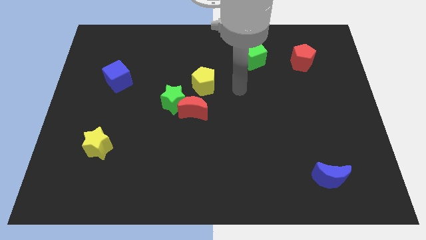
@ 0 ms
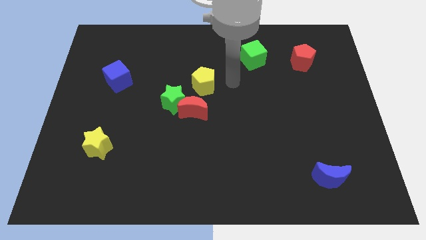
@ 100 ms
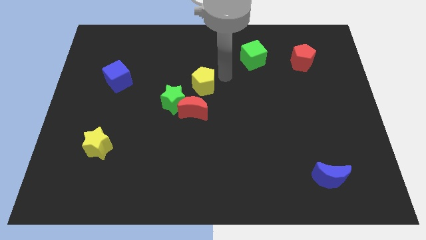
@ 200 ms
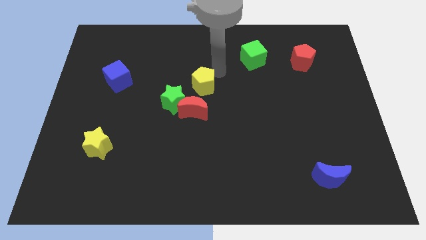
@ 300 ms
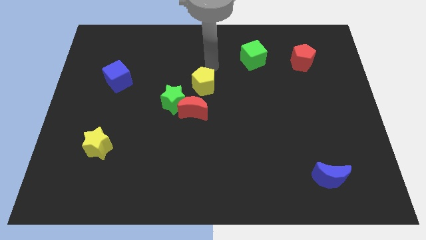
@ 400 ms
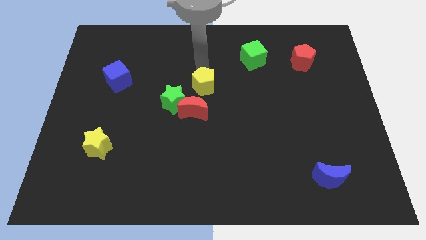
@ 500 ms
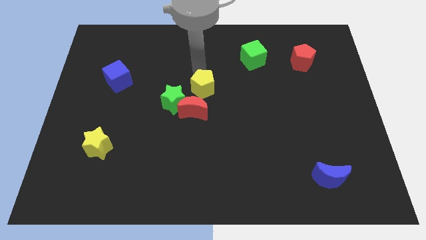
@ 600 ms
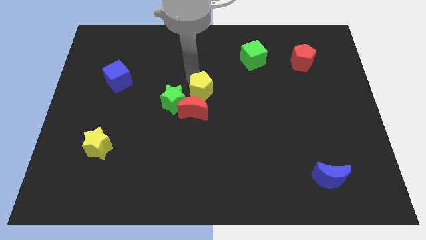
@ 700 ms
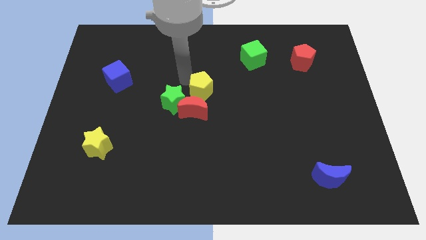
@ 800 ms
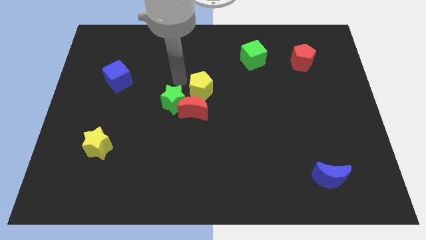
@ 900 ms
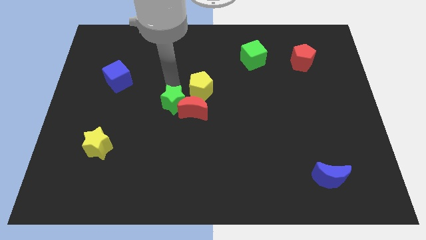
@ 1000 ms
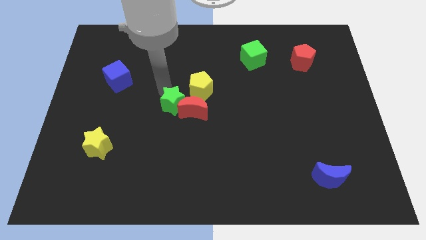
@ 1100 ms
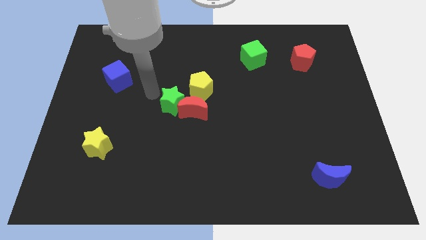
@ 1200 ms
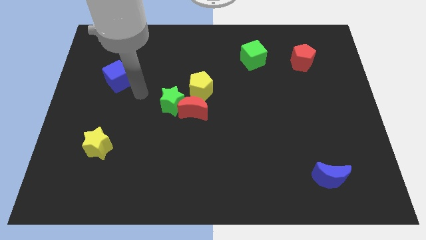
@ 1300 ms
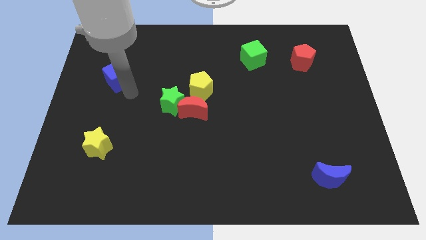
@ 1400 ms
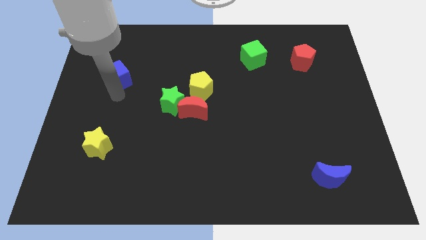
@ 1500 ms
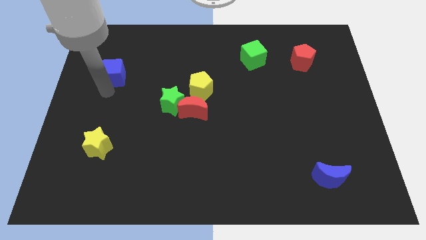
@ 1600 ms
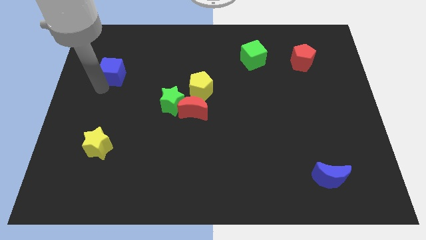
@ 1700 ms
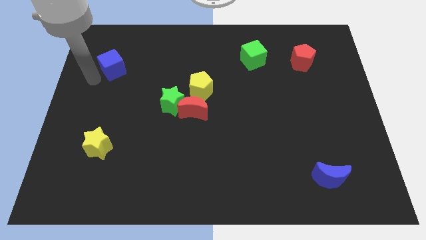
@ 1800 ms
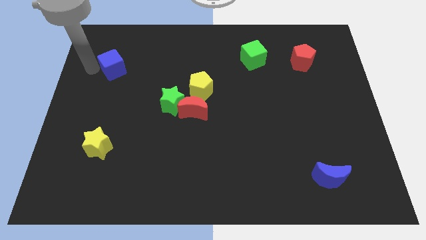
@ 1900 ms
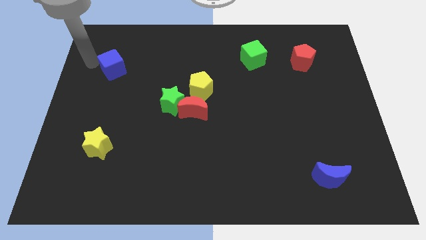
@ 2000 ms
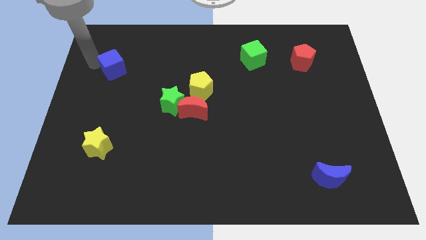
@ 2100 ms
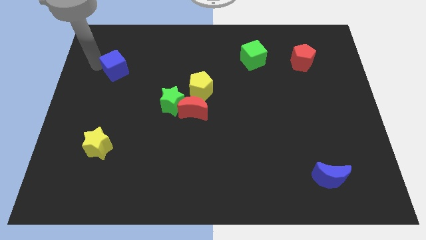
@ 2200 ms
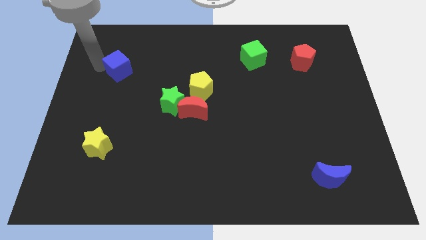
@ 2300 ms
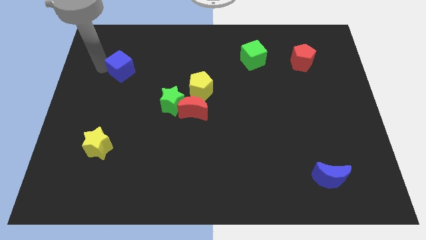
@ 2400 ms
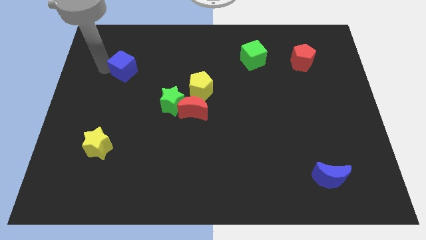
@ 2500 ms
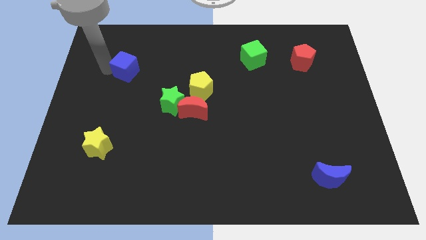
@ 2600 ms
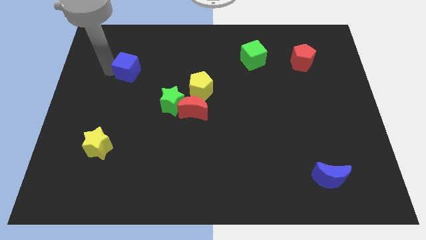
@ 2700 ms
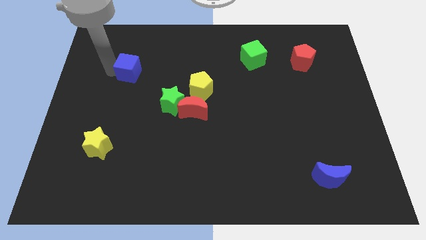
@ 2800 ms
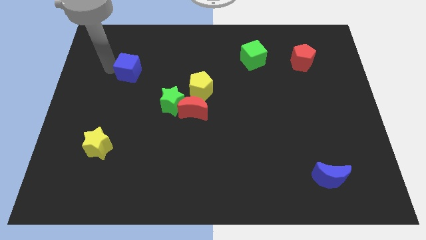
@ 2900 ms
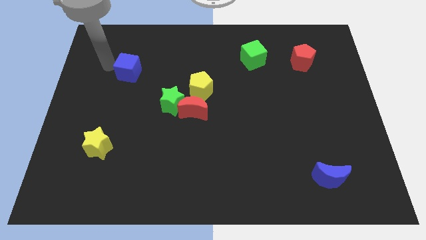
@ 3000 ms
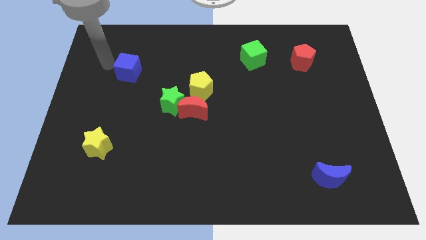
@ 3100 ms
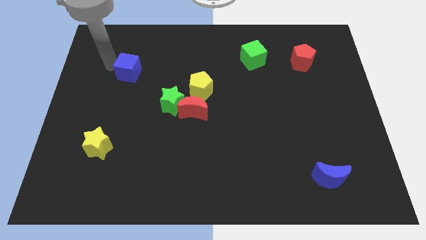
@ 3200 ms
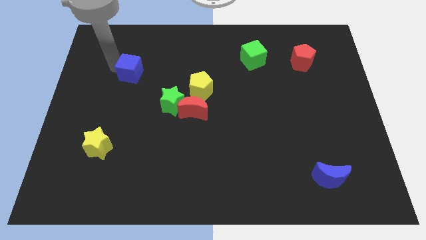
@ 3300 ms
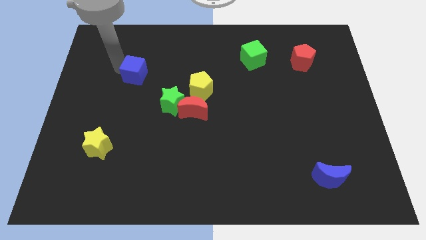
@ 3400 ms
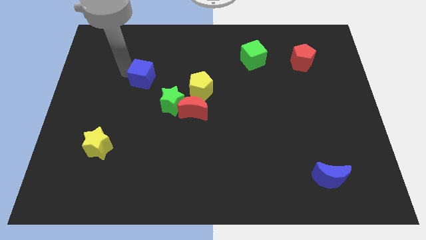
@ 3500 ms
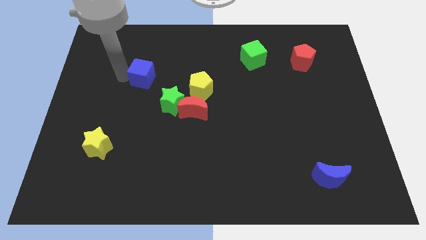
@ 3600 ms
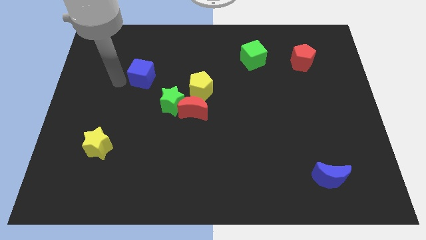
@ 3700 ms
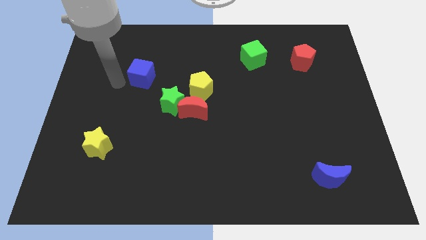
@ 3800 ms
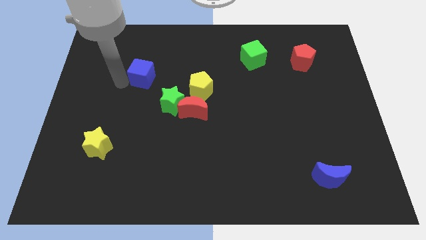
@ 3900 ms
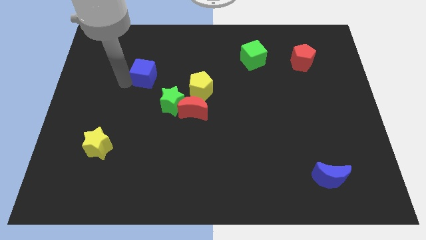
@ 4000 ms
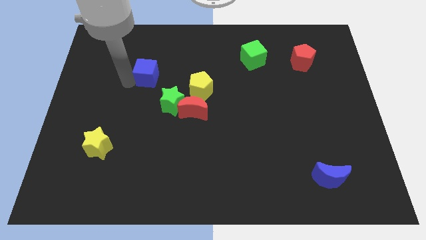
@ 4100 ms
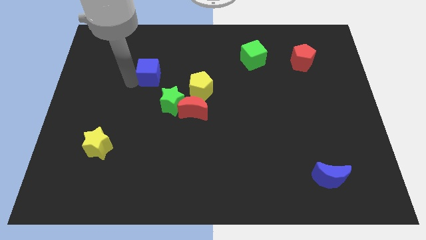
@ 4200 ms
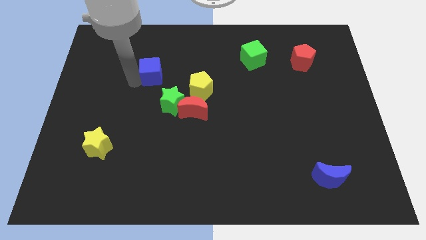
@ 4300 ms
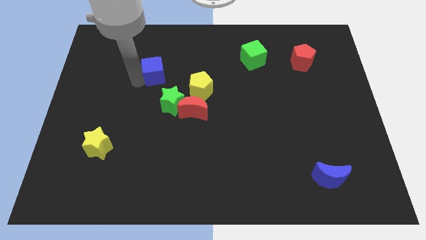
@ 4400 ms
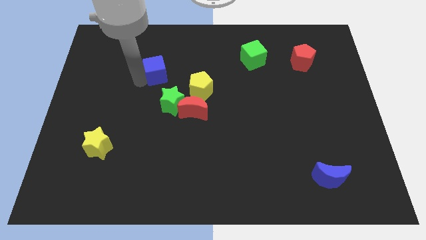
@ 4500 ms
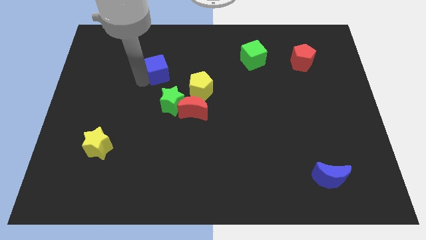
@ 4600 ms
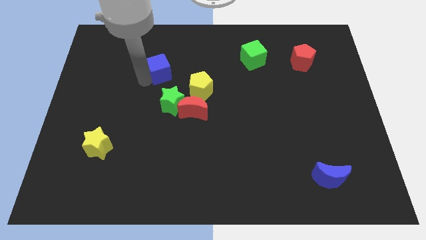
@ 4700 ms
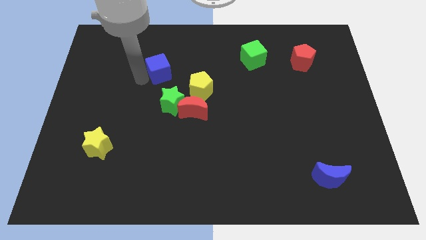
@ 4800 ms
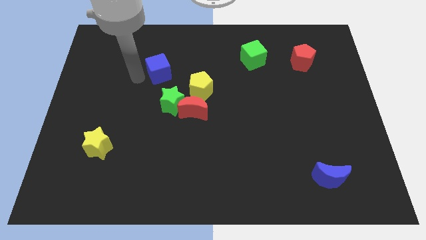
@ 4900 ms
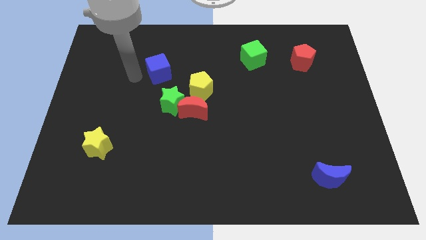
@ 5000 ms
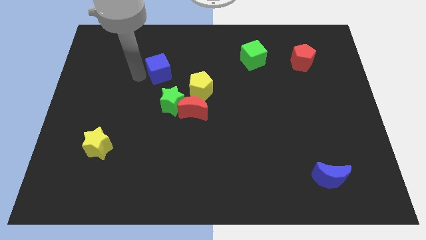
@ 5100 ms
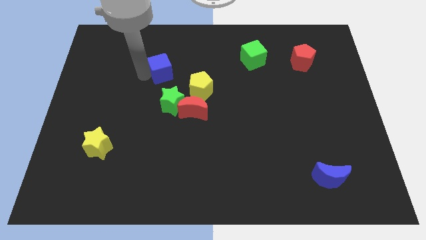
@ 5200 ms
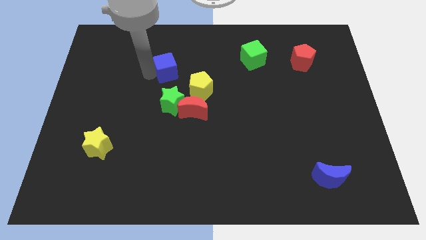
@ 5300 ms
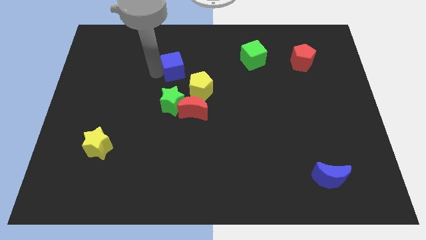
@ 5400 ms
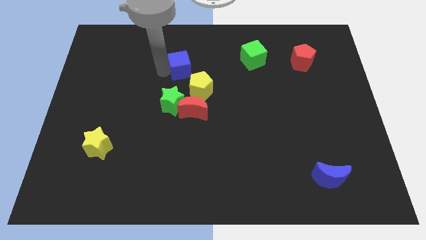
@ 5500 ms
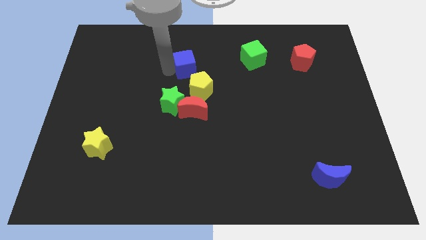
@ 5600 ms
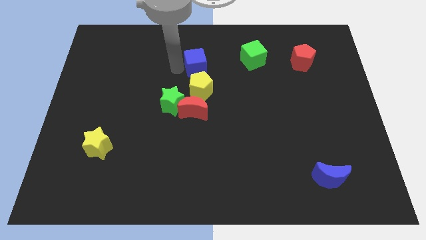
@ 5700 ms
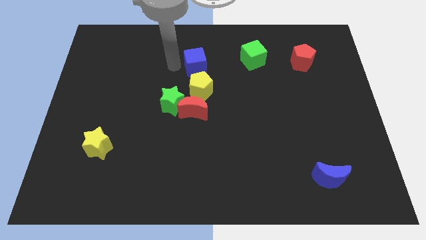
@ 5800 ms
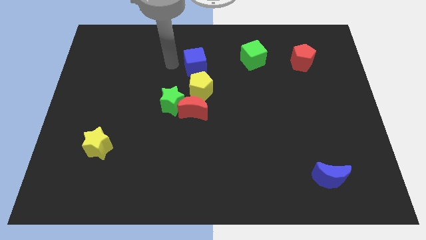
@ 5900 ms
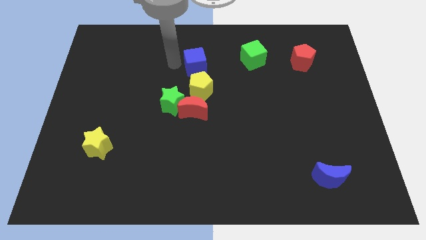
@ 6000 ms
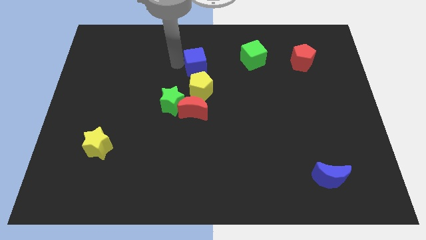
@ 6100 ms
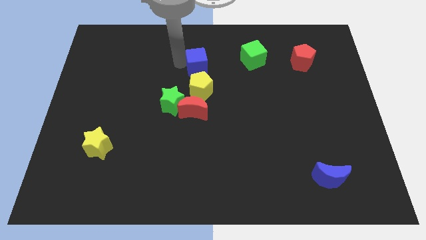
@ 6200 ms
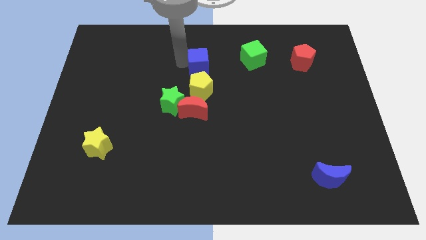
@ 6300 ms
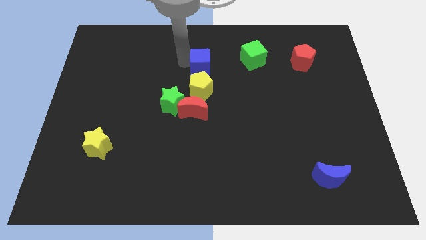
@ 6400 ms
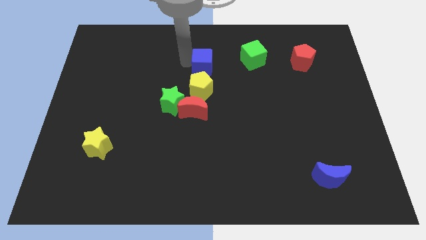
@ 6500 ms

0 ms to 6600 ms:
slide the blue cube to the right

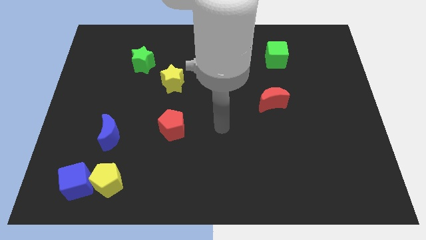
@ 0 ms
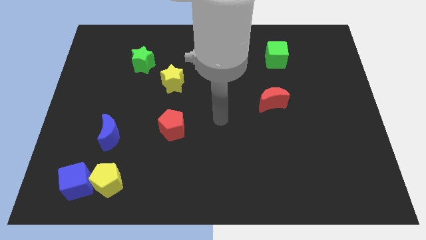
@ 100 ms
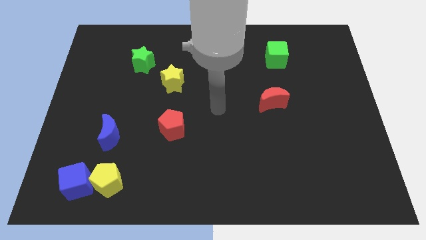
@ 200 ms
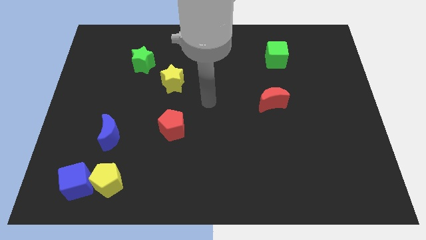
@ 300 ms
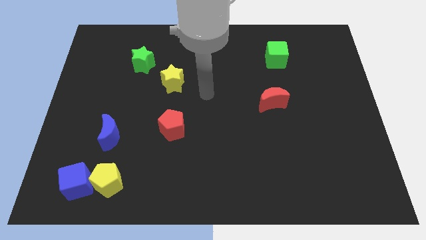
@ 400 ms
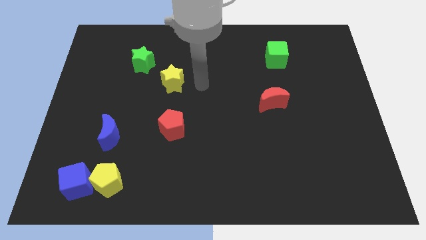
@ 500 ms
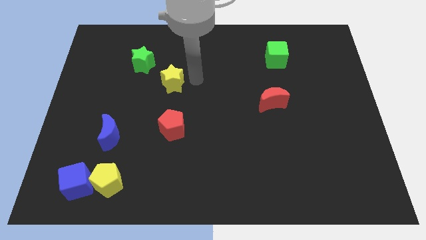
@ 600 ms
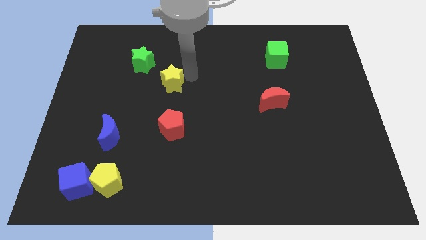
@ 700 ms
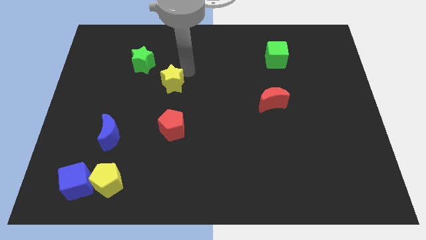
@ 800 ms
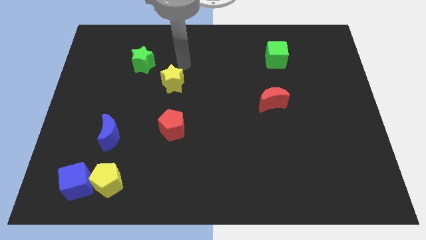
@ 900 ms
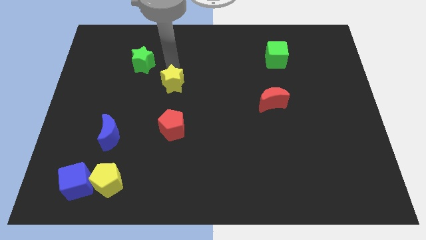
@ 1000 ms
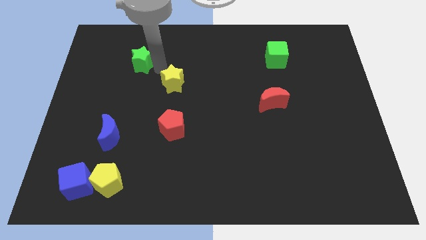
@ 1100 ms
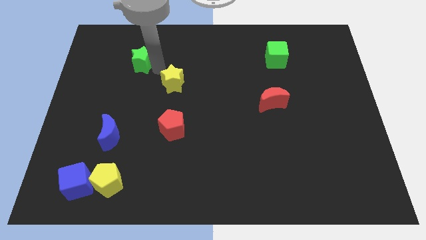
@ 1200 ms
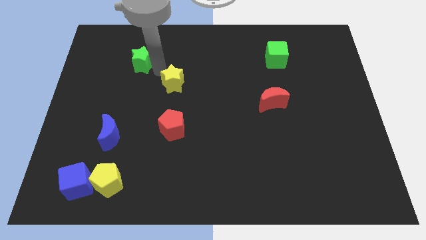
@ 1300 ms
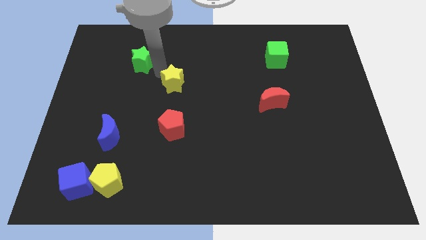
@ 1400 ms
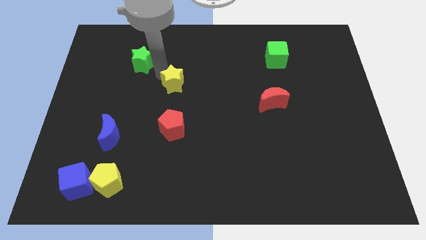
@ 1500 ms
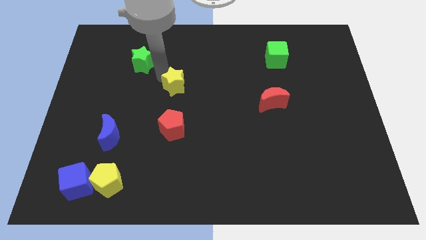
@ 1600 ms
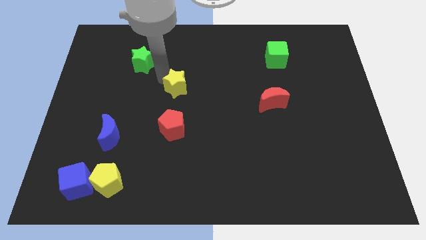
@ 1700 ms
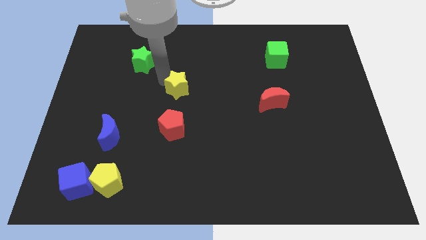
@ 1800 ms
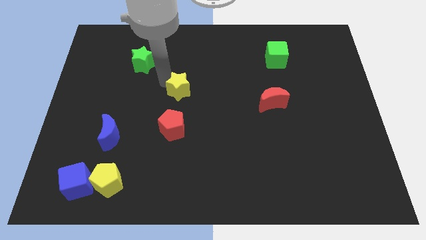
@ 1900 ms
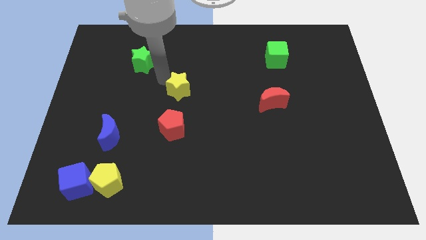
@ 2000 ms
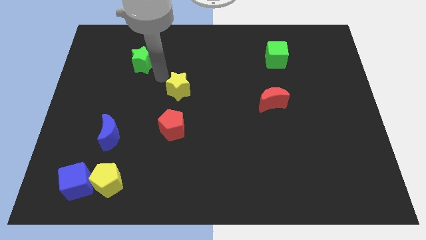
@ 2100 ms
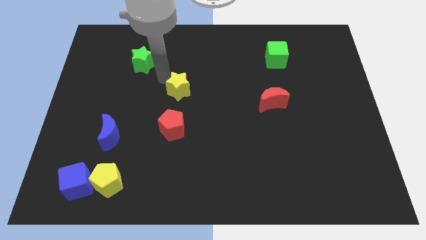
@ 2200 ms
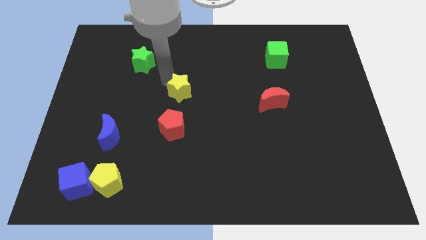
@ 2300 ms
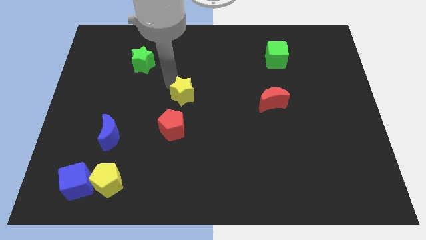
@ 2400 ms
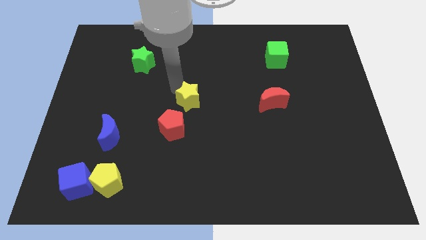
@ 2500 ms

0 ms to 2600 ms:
slightly move the yellow star downwards and then right
